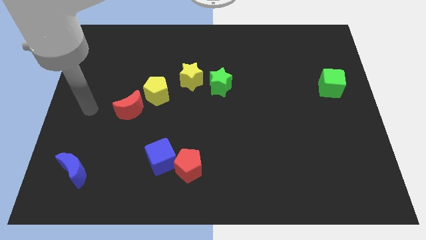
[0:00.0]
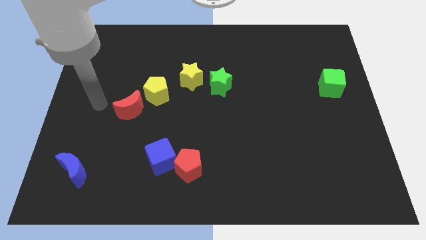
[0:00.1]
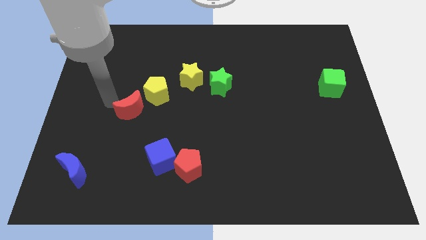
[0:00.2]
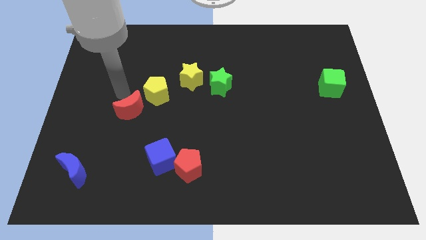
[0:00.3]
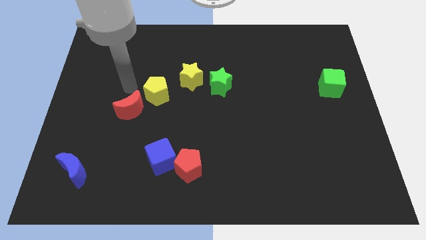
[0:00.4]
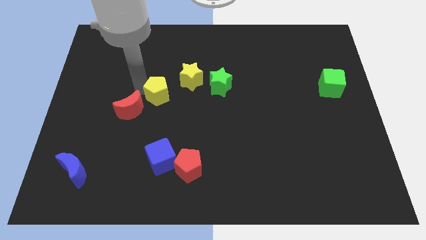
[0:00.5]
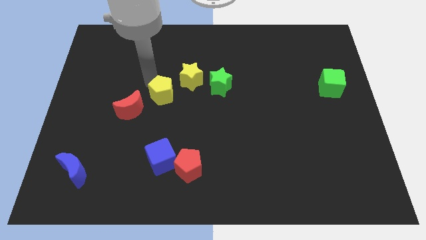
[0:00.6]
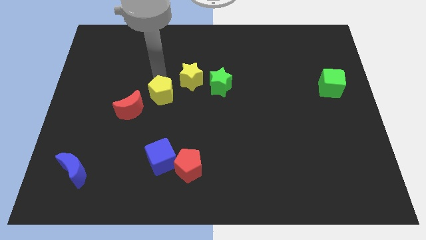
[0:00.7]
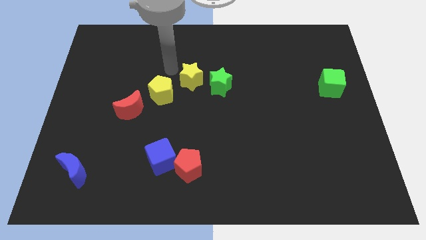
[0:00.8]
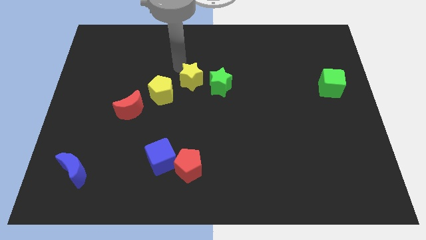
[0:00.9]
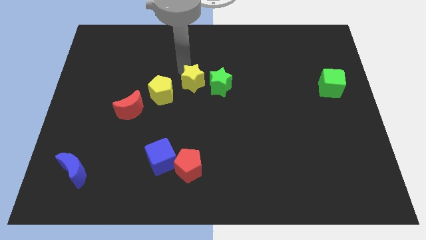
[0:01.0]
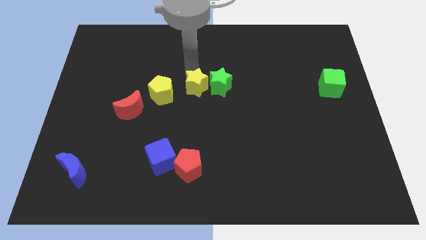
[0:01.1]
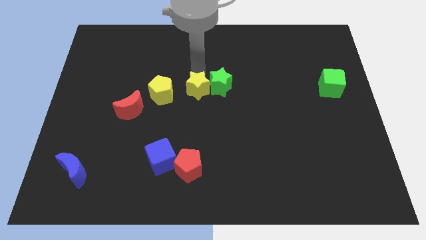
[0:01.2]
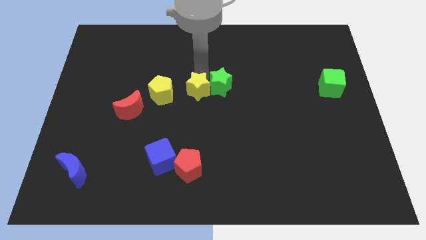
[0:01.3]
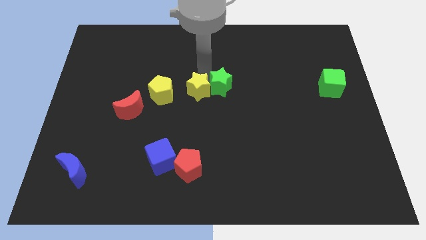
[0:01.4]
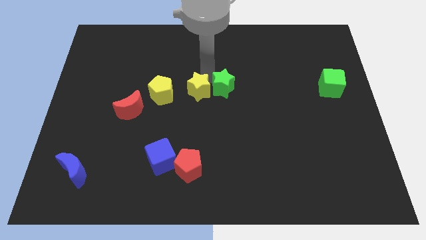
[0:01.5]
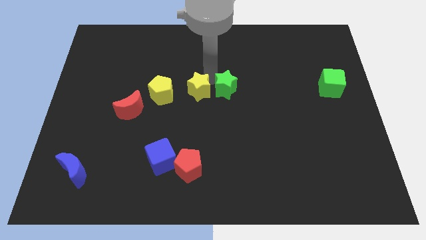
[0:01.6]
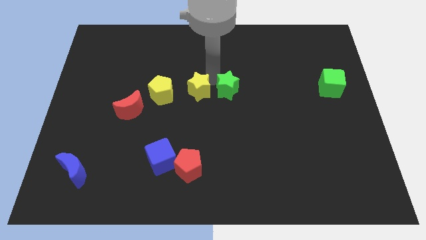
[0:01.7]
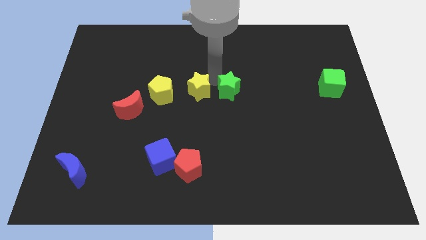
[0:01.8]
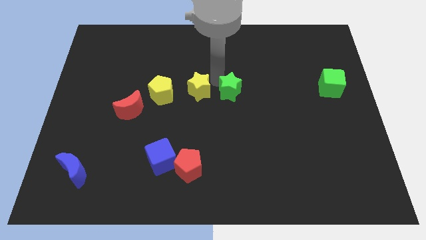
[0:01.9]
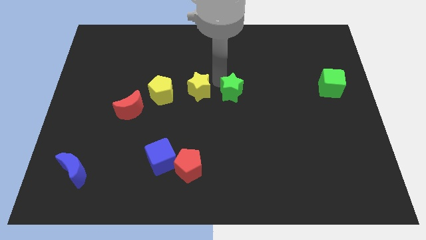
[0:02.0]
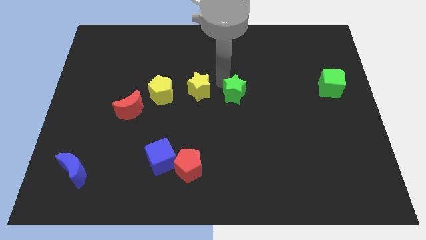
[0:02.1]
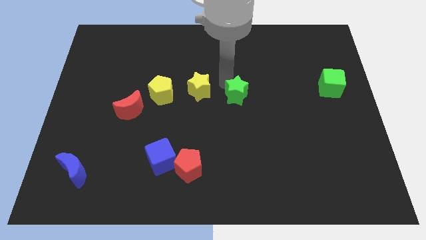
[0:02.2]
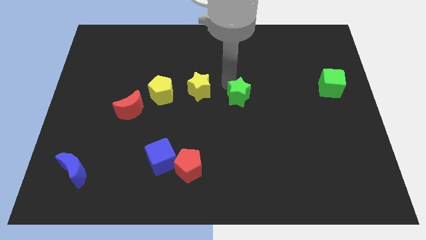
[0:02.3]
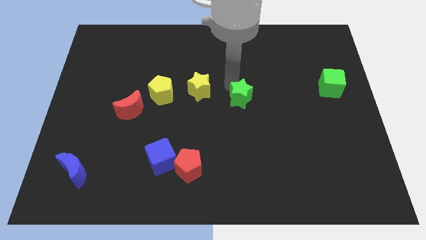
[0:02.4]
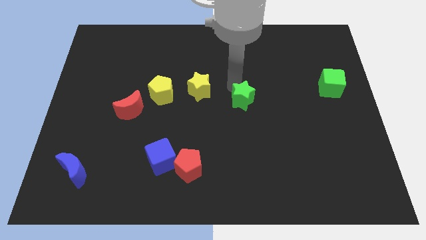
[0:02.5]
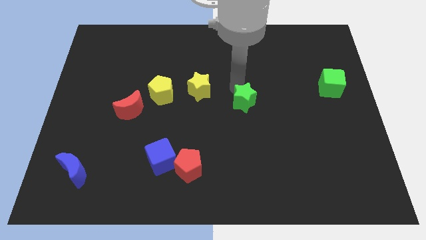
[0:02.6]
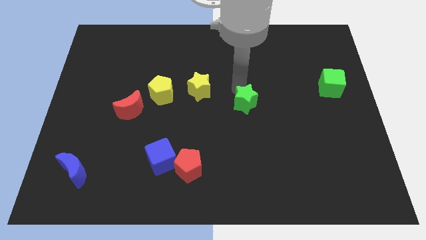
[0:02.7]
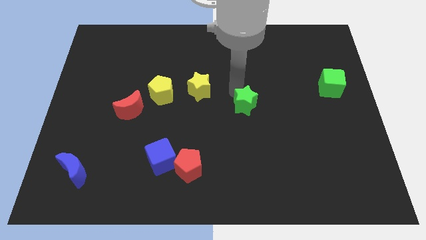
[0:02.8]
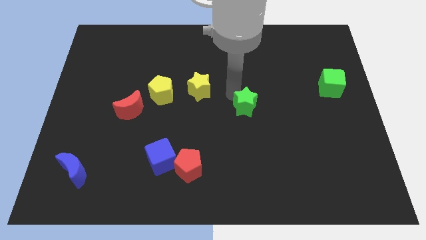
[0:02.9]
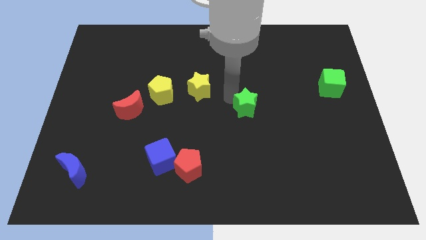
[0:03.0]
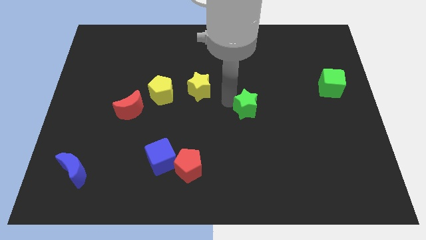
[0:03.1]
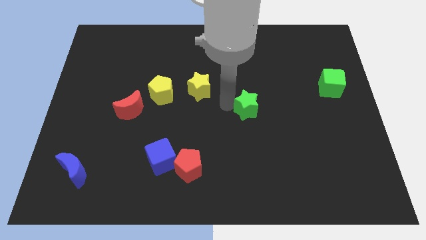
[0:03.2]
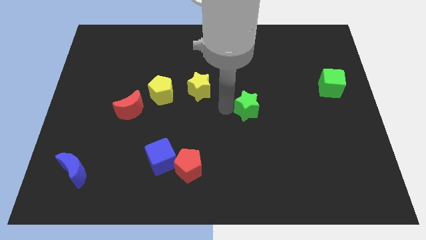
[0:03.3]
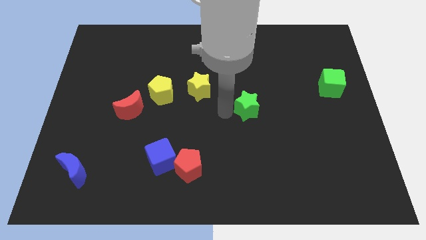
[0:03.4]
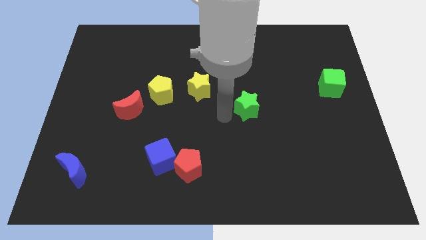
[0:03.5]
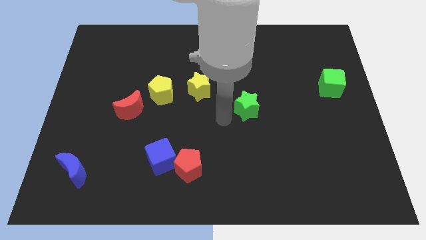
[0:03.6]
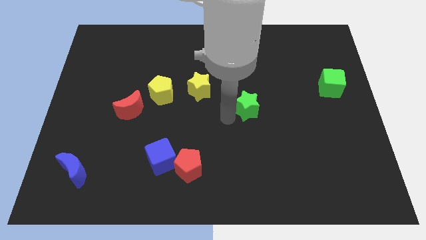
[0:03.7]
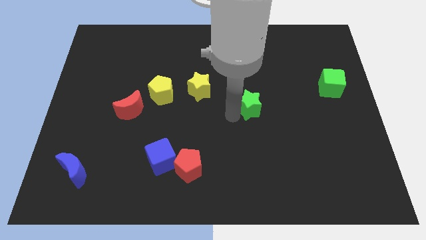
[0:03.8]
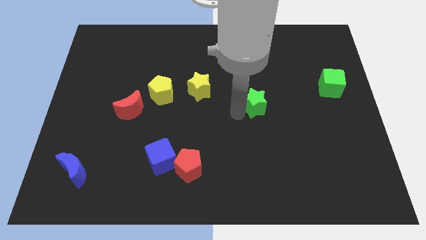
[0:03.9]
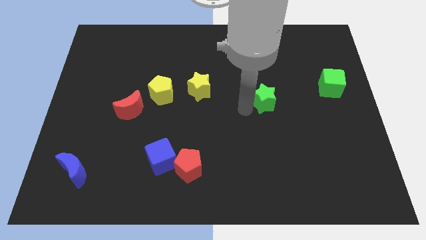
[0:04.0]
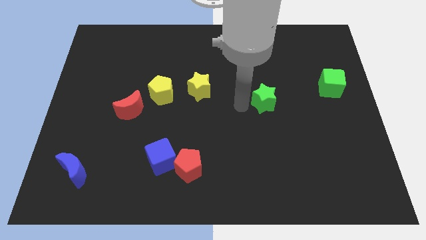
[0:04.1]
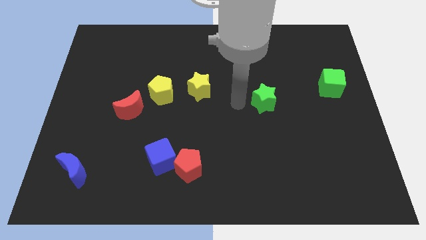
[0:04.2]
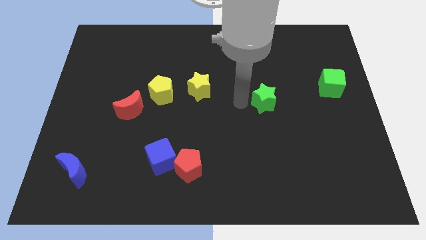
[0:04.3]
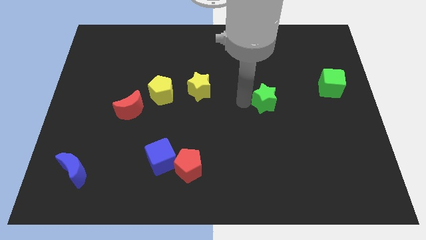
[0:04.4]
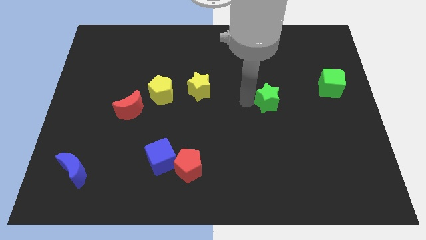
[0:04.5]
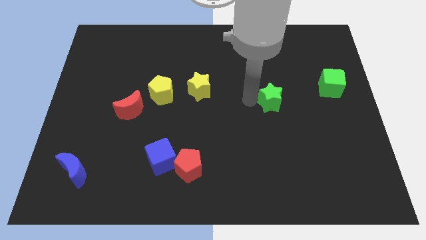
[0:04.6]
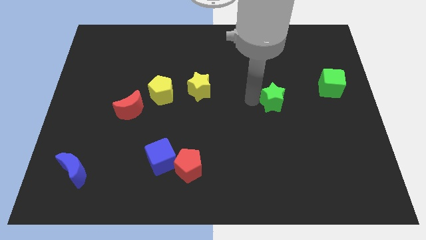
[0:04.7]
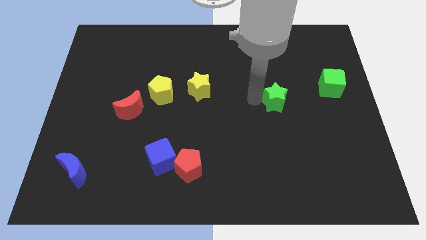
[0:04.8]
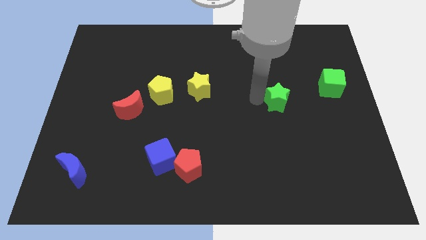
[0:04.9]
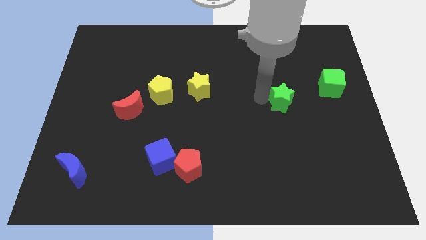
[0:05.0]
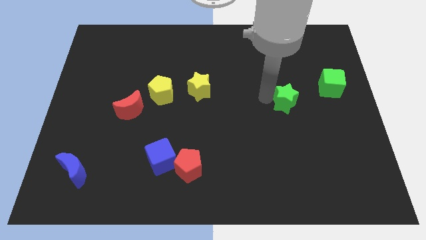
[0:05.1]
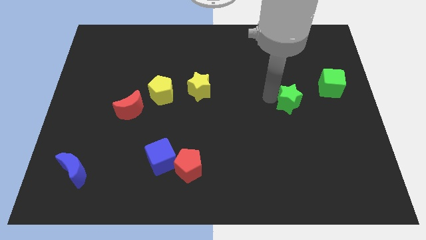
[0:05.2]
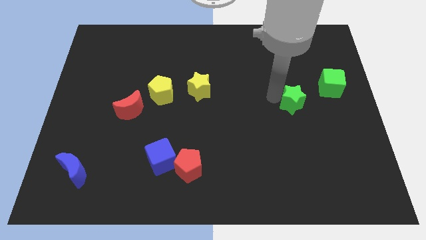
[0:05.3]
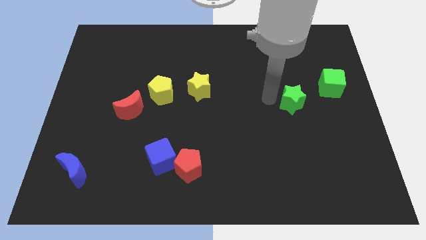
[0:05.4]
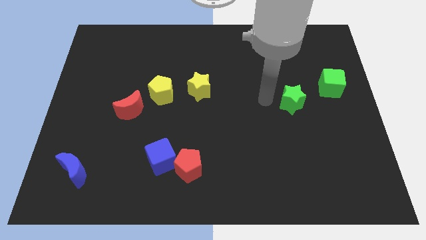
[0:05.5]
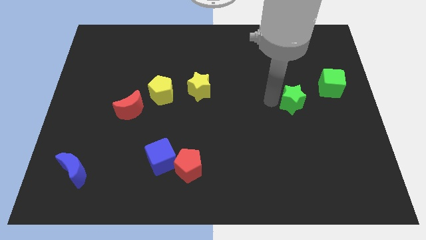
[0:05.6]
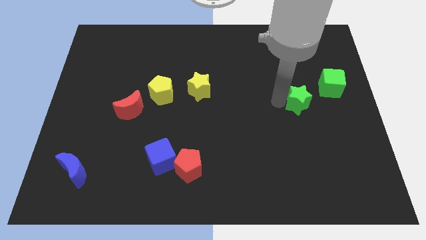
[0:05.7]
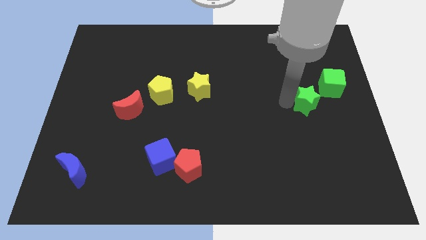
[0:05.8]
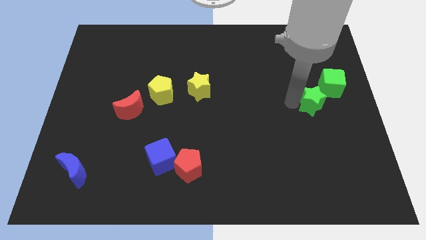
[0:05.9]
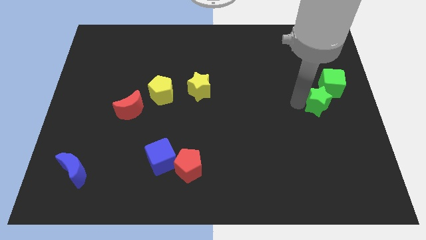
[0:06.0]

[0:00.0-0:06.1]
push the green star to the right side of the board
